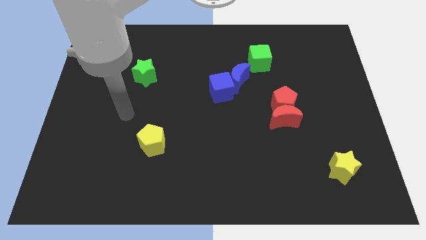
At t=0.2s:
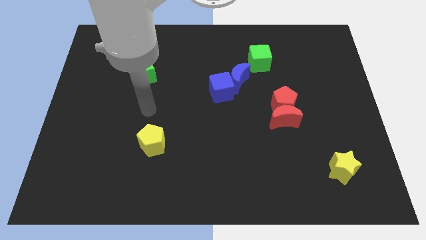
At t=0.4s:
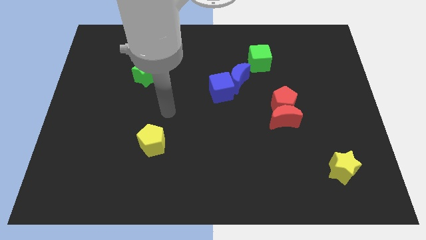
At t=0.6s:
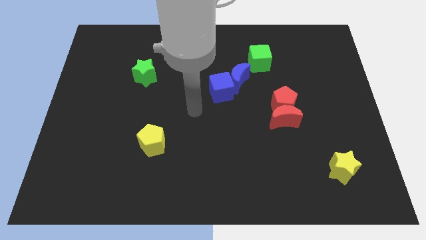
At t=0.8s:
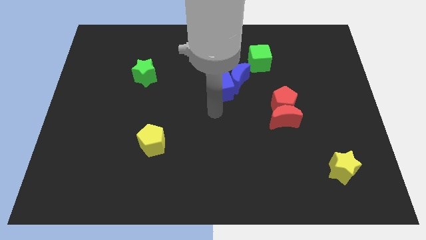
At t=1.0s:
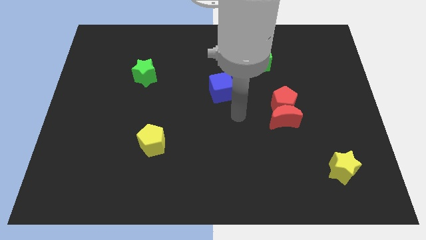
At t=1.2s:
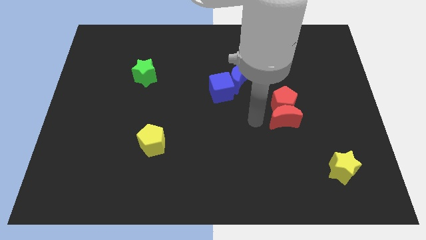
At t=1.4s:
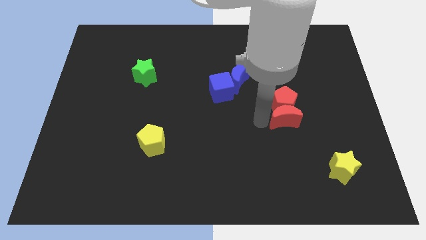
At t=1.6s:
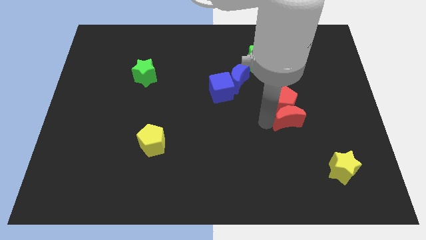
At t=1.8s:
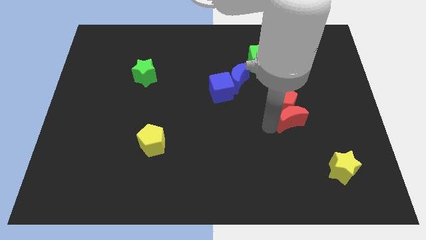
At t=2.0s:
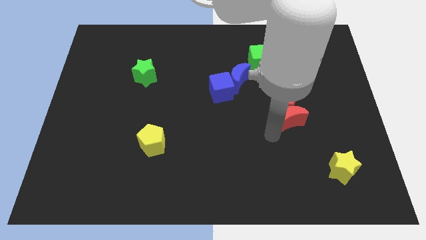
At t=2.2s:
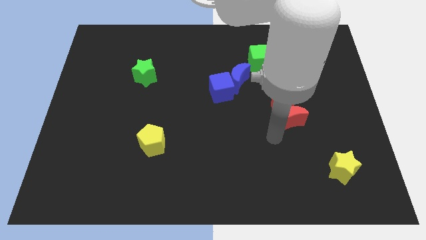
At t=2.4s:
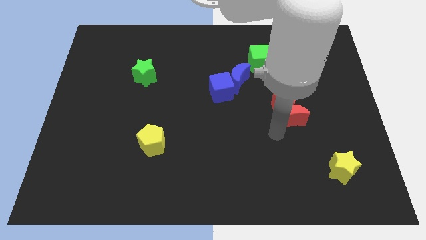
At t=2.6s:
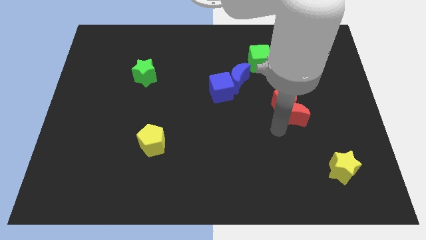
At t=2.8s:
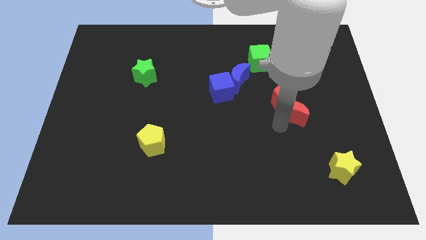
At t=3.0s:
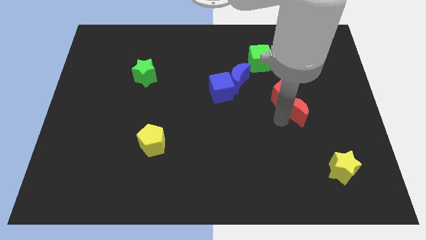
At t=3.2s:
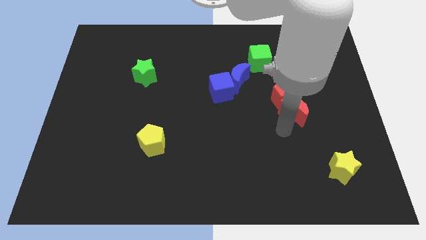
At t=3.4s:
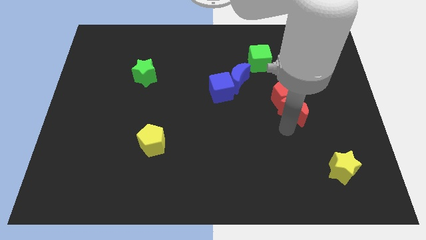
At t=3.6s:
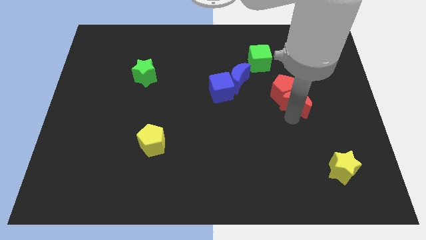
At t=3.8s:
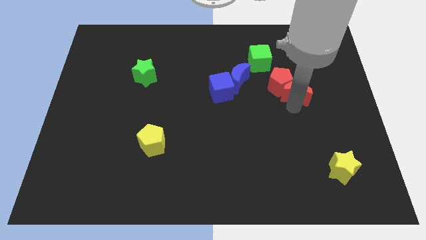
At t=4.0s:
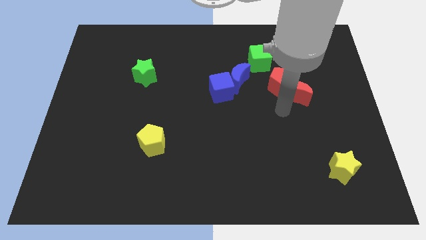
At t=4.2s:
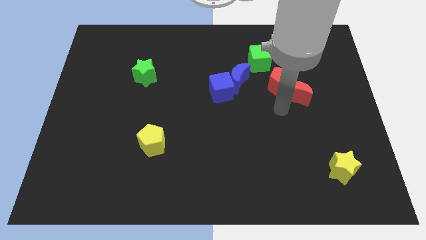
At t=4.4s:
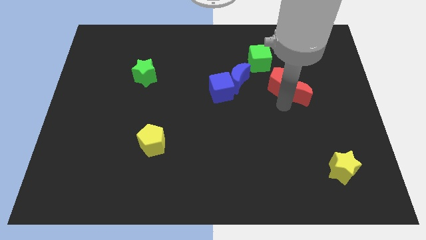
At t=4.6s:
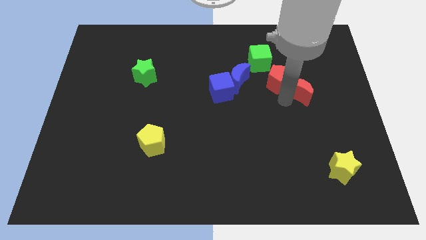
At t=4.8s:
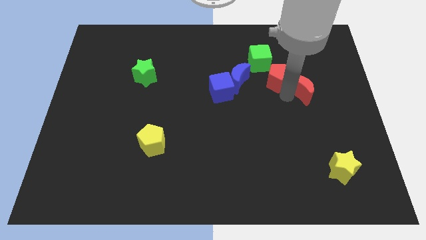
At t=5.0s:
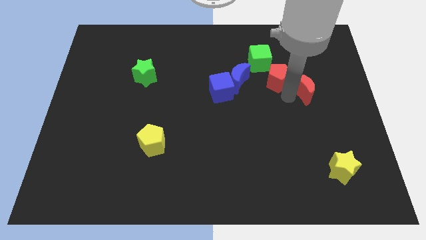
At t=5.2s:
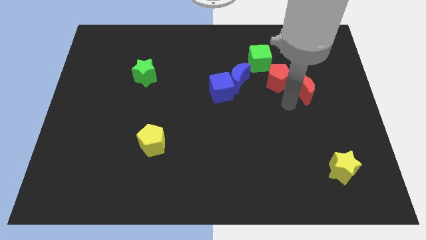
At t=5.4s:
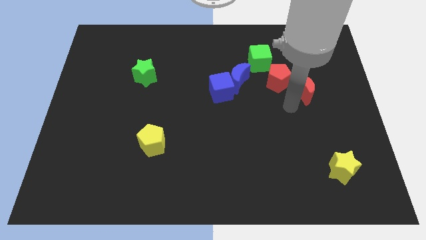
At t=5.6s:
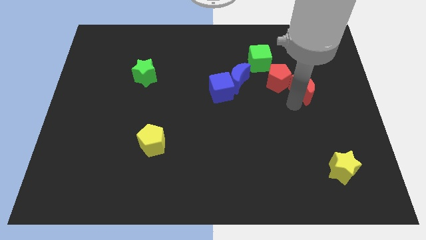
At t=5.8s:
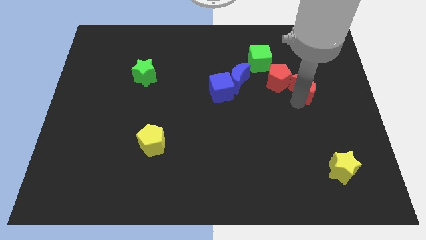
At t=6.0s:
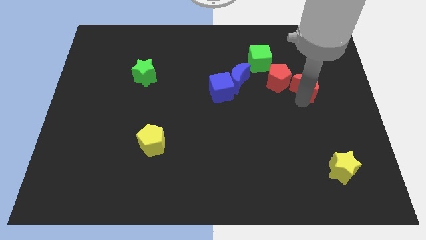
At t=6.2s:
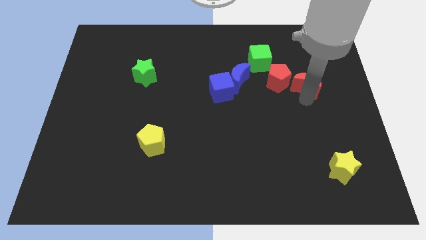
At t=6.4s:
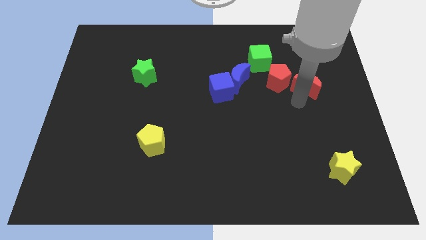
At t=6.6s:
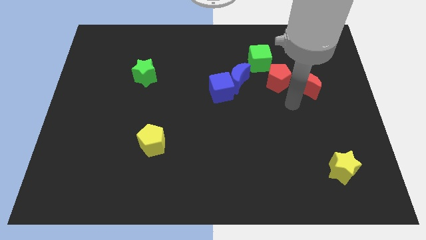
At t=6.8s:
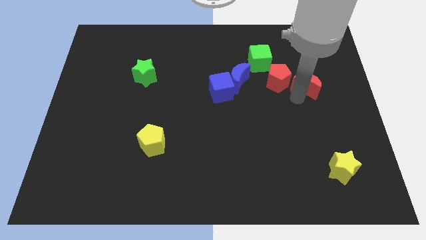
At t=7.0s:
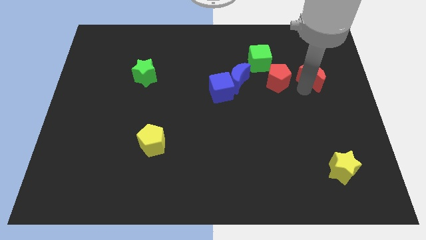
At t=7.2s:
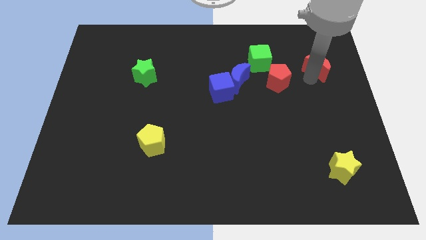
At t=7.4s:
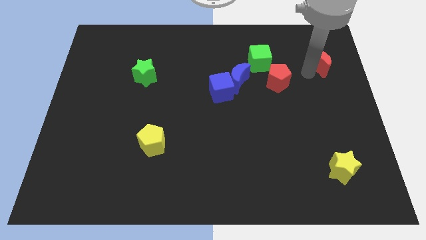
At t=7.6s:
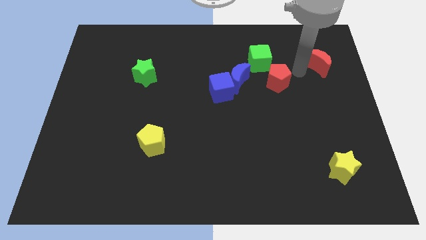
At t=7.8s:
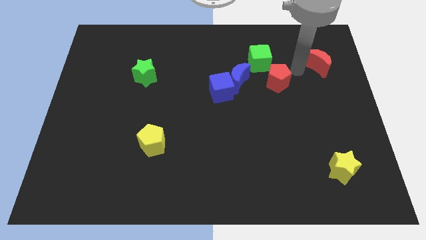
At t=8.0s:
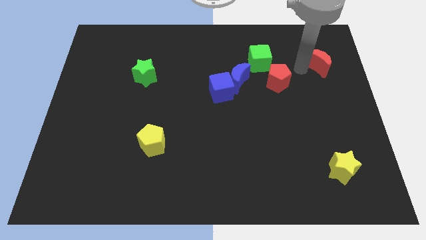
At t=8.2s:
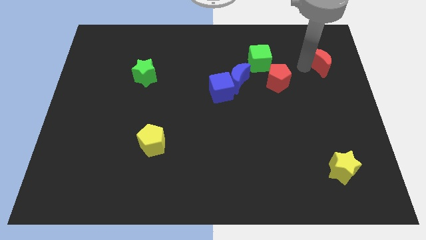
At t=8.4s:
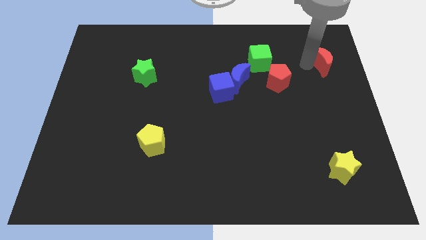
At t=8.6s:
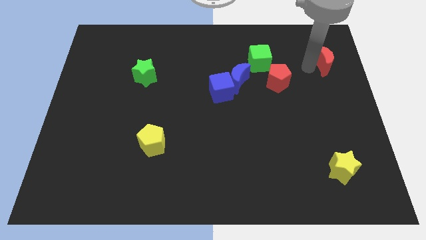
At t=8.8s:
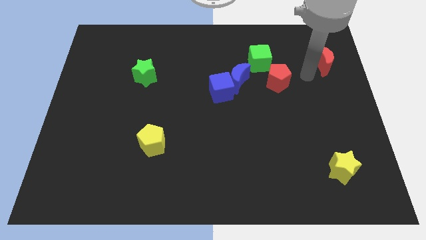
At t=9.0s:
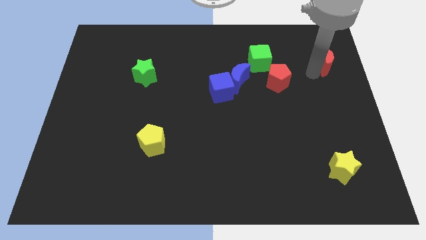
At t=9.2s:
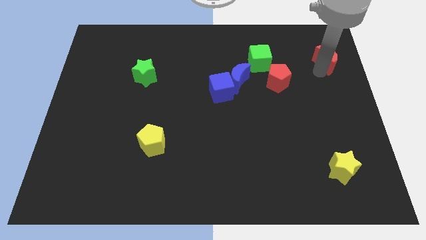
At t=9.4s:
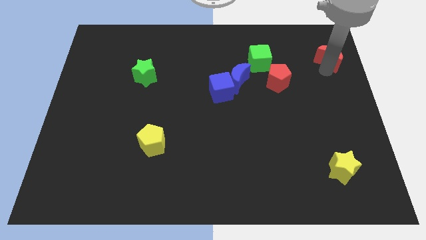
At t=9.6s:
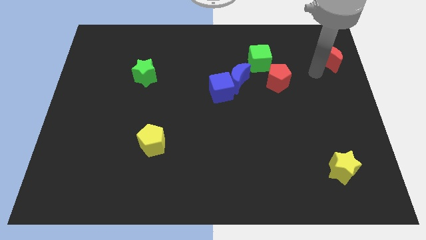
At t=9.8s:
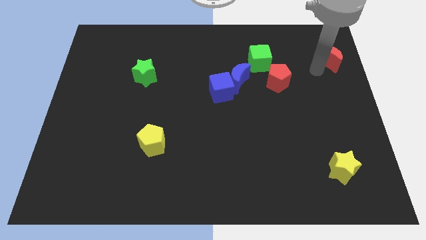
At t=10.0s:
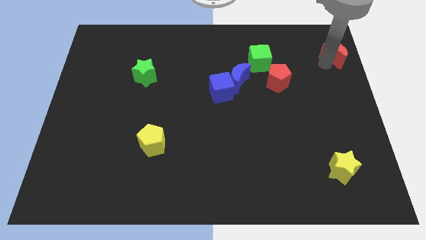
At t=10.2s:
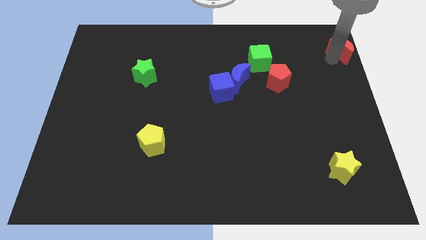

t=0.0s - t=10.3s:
slide the red moon to the top right

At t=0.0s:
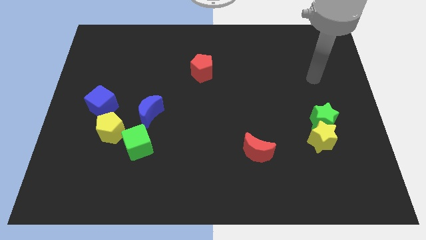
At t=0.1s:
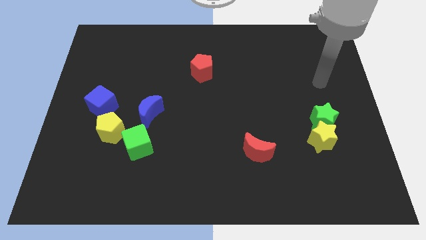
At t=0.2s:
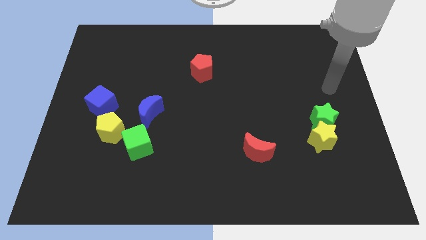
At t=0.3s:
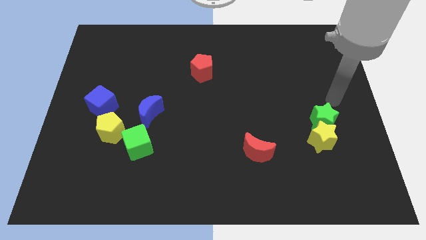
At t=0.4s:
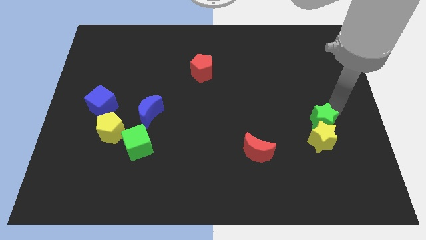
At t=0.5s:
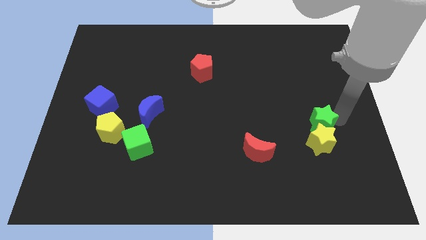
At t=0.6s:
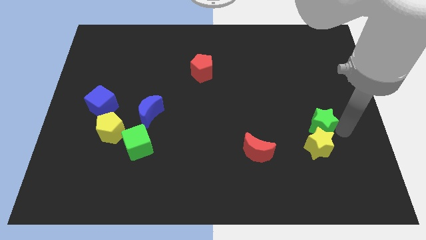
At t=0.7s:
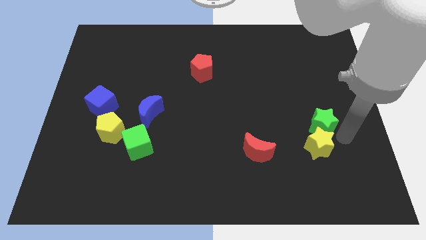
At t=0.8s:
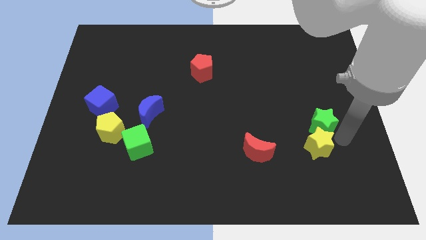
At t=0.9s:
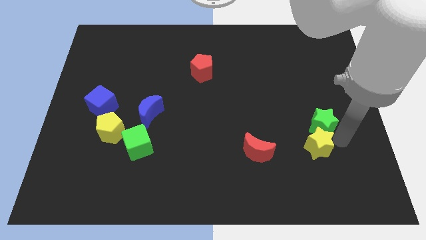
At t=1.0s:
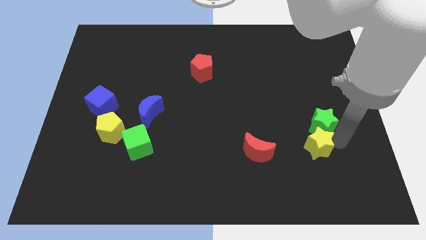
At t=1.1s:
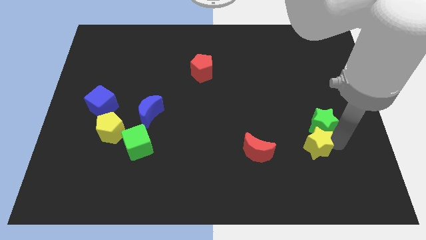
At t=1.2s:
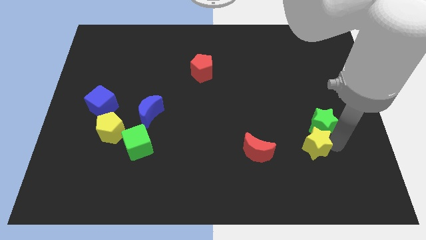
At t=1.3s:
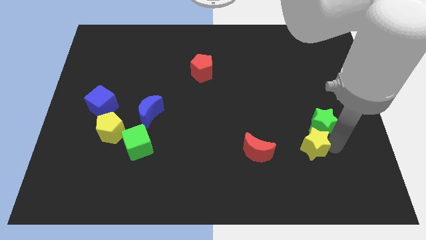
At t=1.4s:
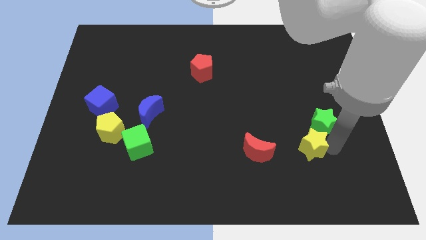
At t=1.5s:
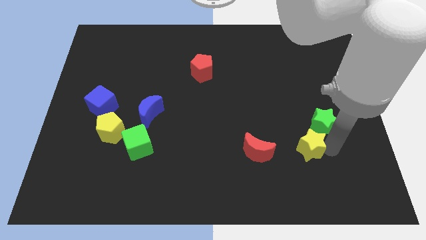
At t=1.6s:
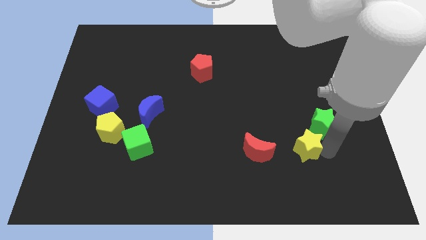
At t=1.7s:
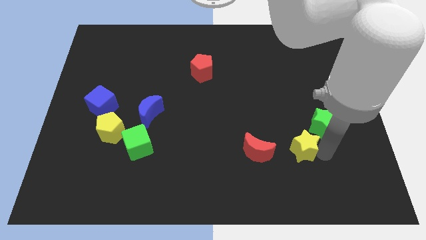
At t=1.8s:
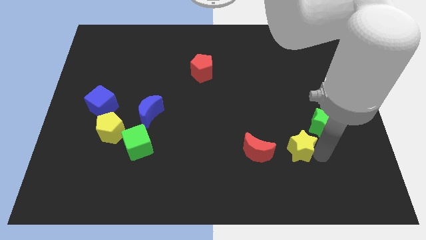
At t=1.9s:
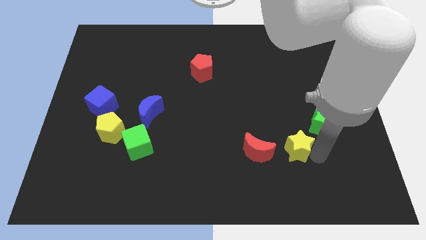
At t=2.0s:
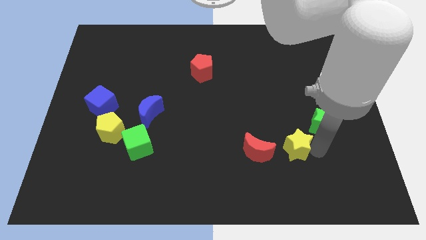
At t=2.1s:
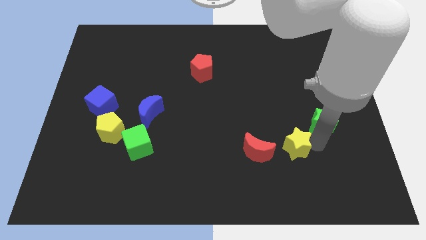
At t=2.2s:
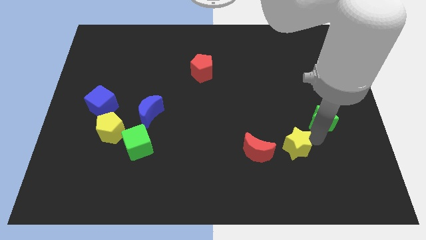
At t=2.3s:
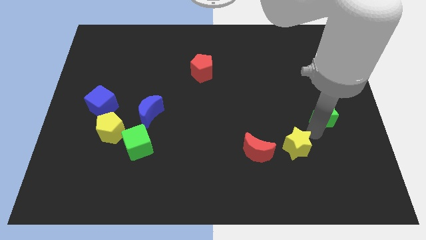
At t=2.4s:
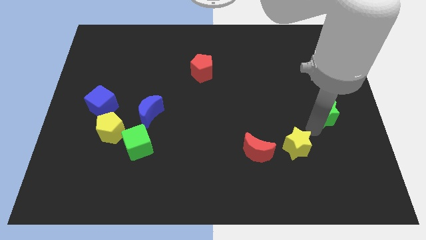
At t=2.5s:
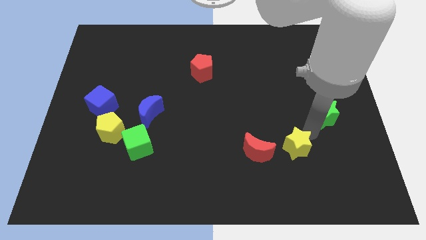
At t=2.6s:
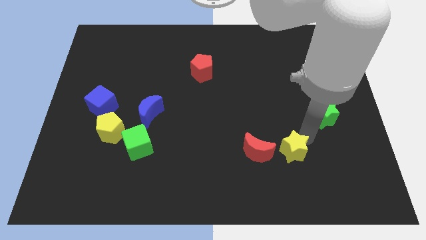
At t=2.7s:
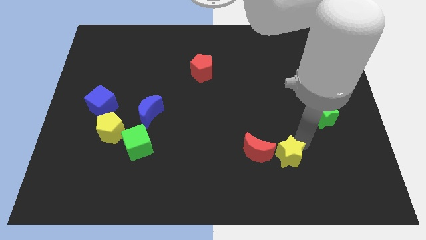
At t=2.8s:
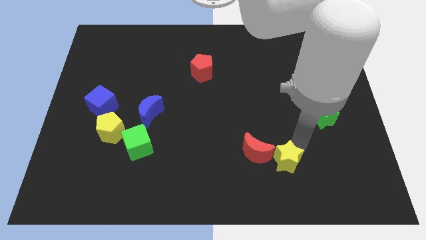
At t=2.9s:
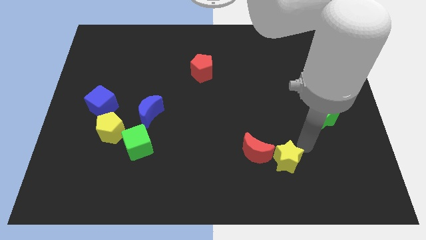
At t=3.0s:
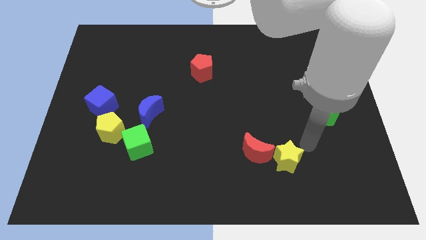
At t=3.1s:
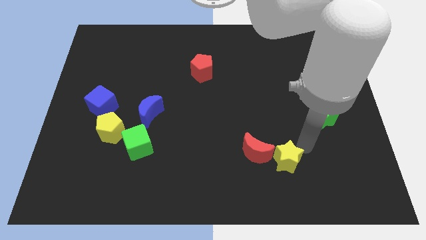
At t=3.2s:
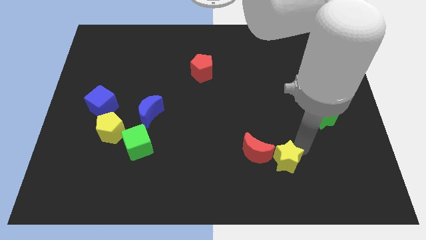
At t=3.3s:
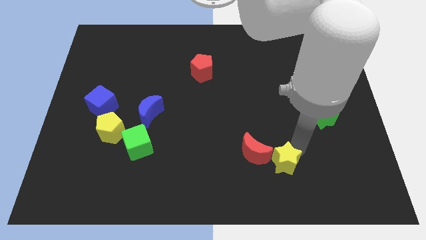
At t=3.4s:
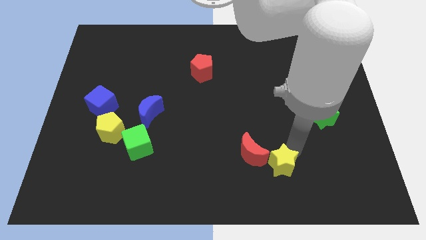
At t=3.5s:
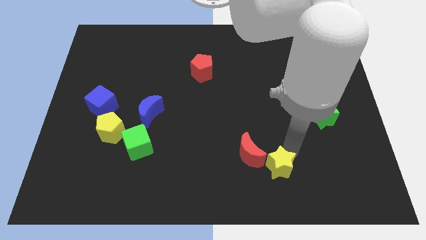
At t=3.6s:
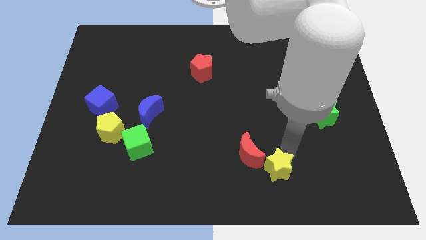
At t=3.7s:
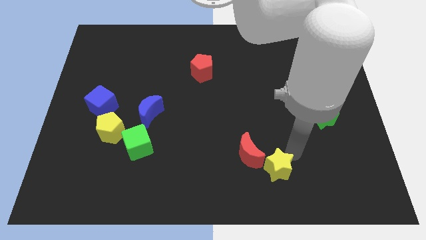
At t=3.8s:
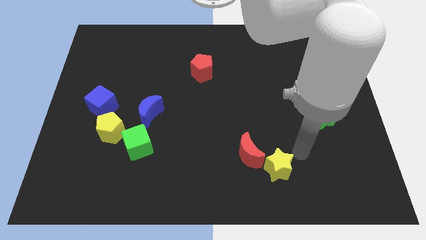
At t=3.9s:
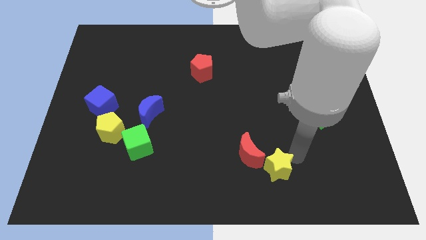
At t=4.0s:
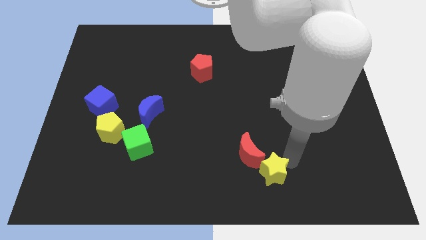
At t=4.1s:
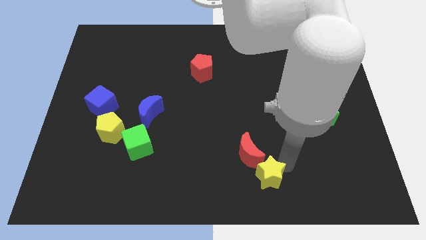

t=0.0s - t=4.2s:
push the yellow star to the bottom side
